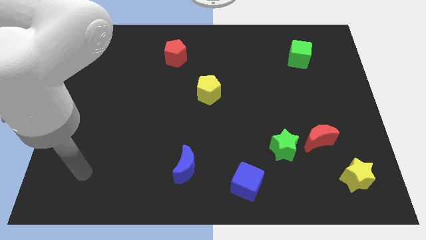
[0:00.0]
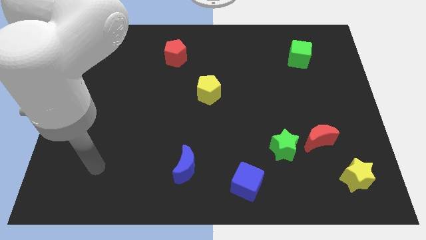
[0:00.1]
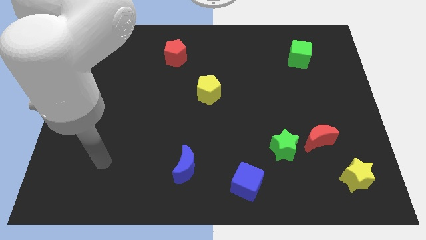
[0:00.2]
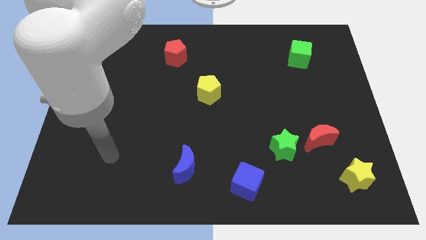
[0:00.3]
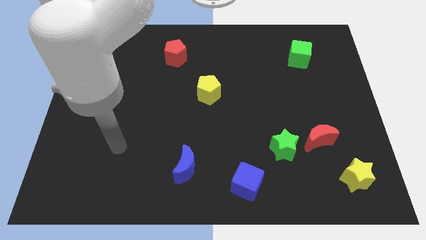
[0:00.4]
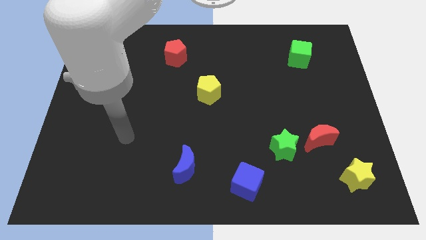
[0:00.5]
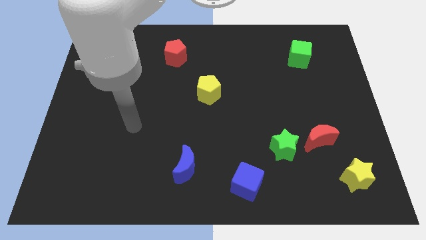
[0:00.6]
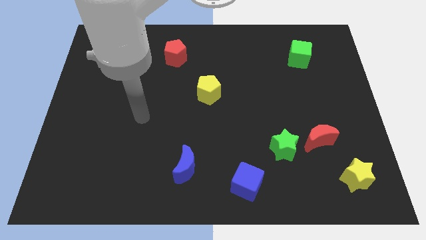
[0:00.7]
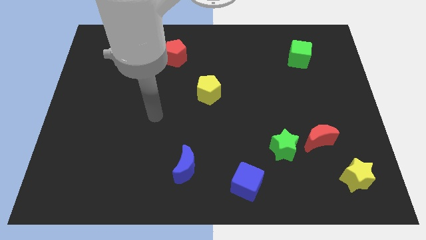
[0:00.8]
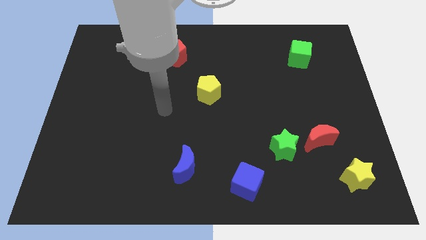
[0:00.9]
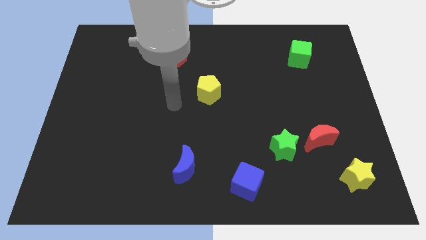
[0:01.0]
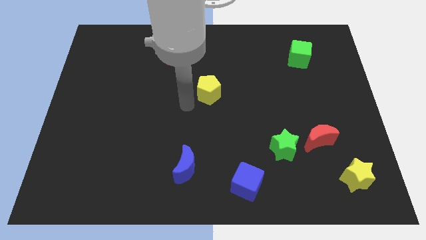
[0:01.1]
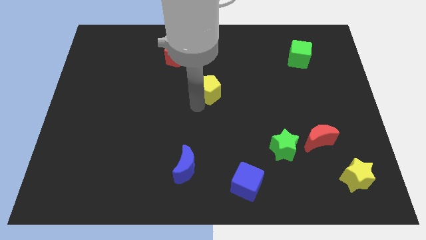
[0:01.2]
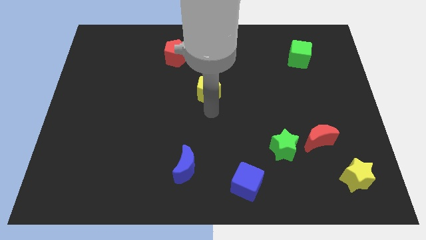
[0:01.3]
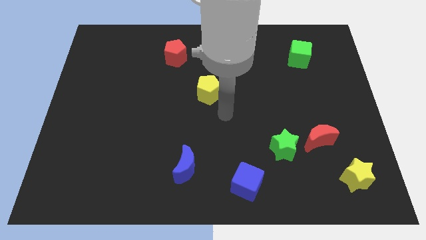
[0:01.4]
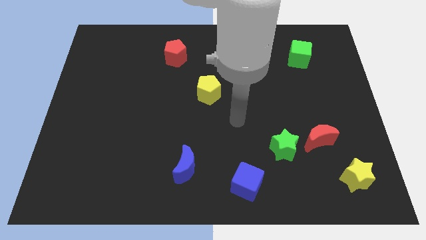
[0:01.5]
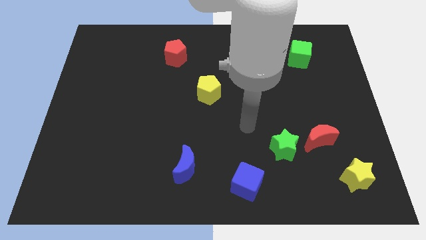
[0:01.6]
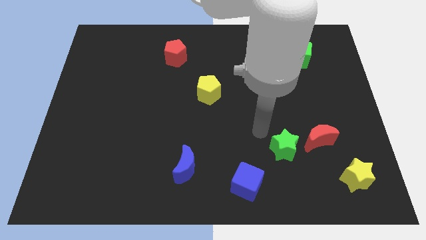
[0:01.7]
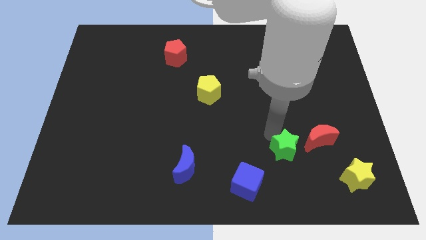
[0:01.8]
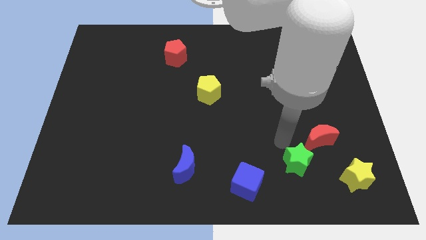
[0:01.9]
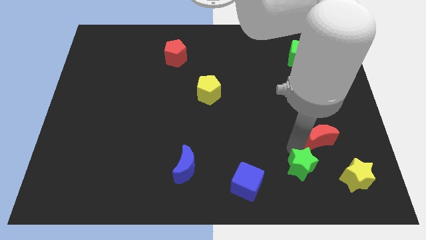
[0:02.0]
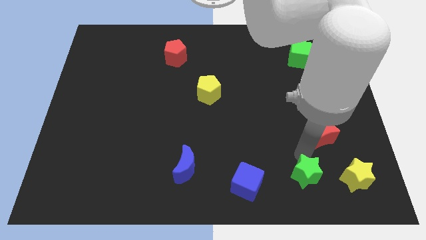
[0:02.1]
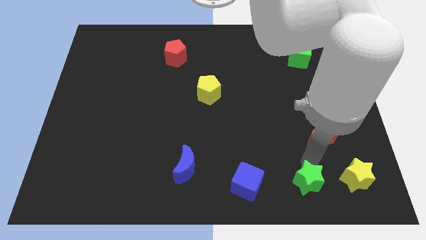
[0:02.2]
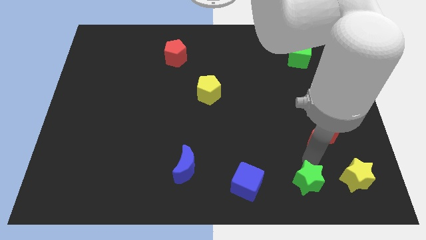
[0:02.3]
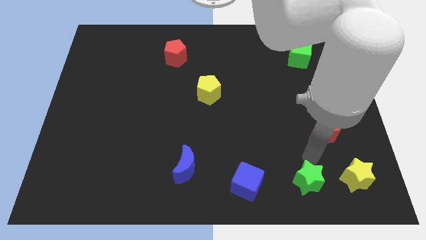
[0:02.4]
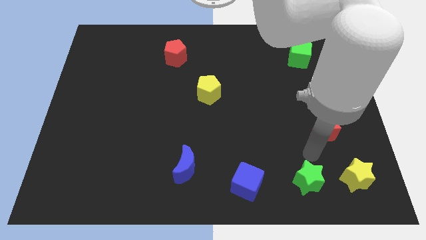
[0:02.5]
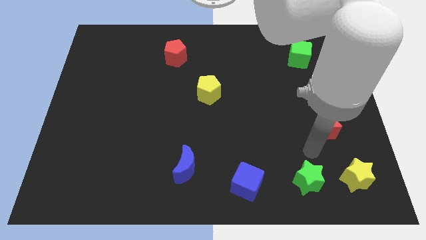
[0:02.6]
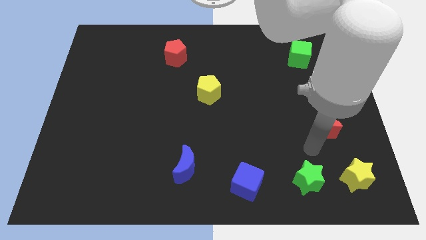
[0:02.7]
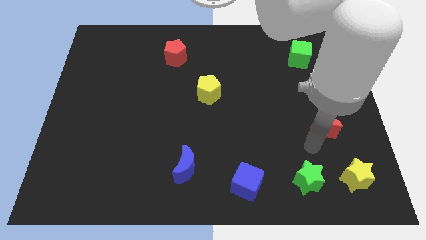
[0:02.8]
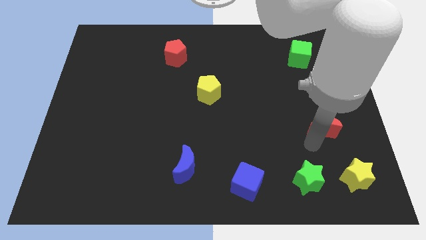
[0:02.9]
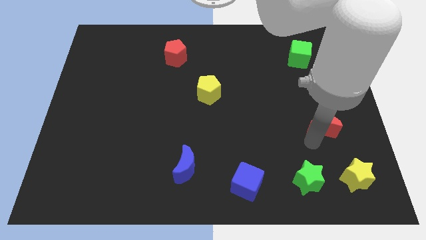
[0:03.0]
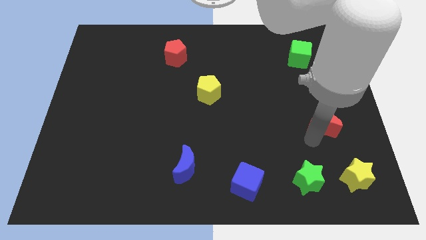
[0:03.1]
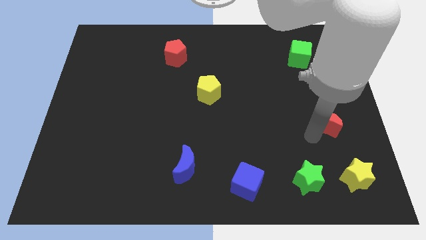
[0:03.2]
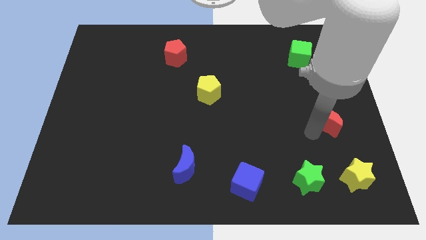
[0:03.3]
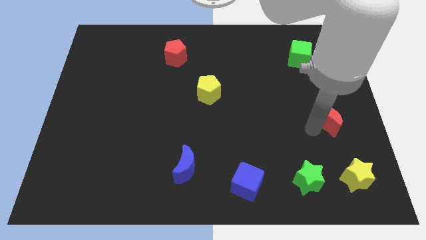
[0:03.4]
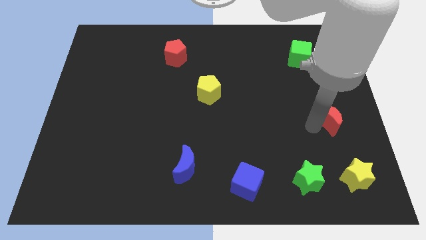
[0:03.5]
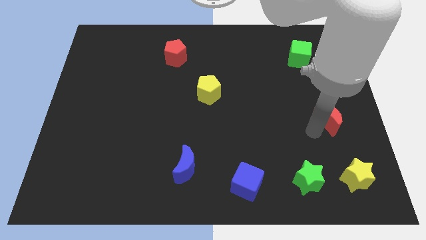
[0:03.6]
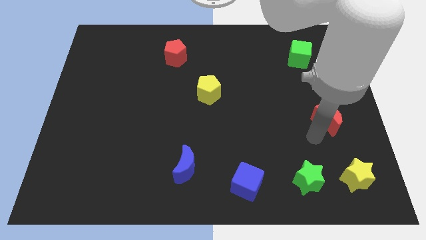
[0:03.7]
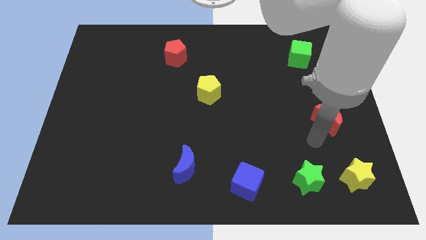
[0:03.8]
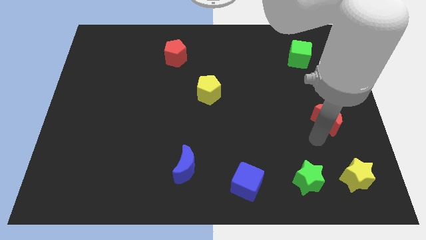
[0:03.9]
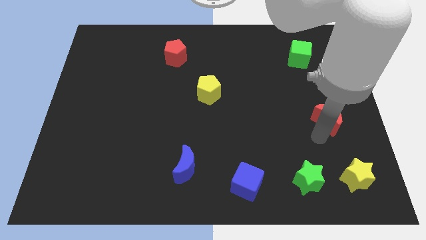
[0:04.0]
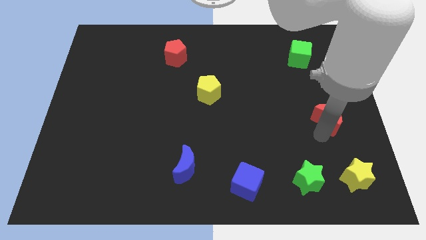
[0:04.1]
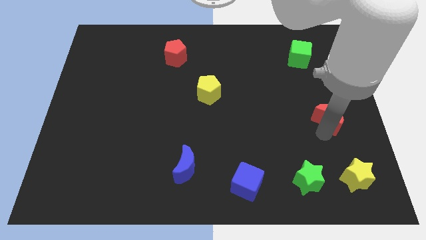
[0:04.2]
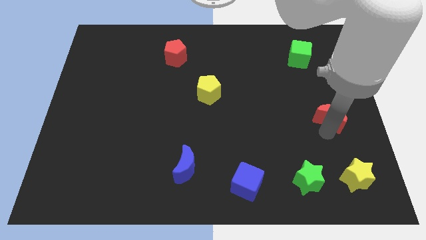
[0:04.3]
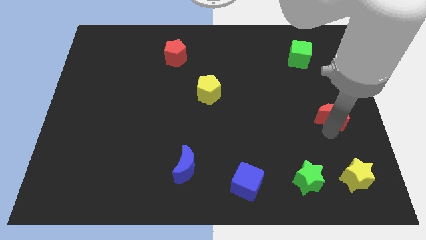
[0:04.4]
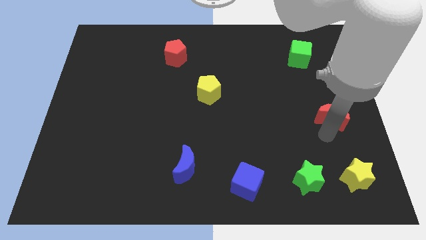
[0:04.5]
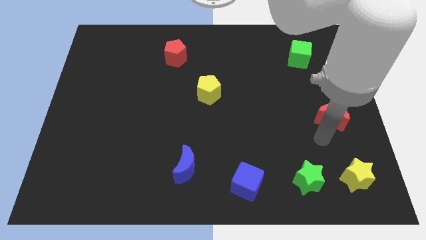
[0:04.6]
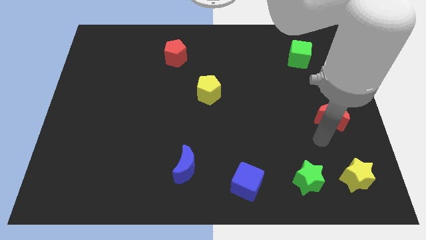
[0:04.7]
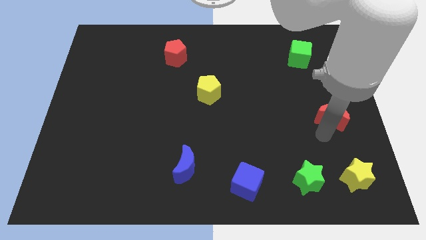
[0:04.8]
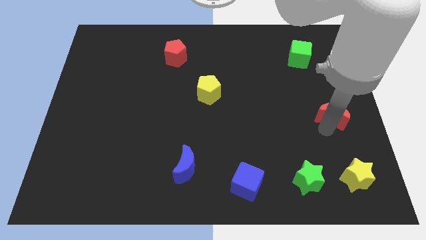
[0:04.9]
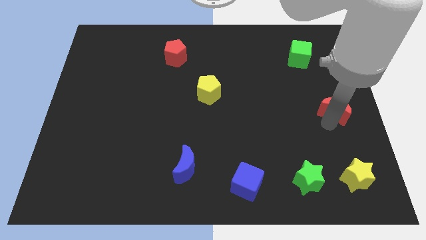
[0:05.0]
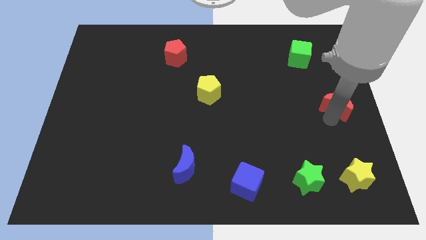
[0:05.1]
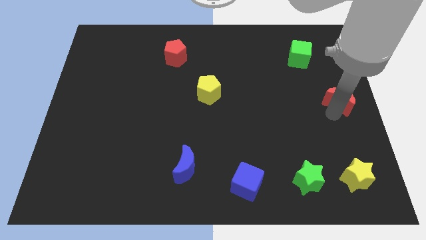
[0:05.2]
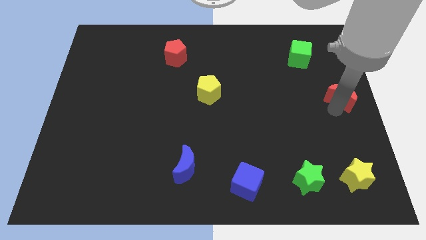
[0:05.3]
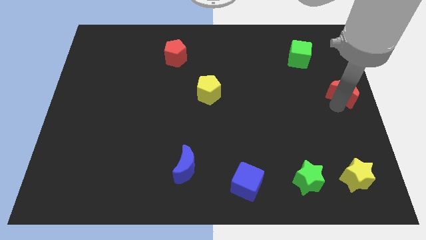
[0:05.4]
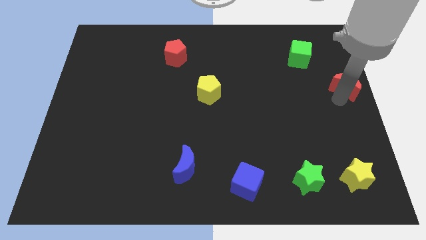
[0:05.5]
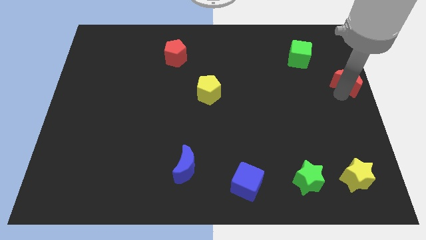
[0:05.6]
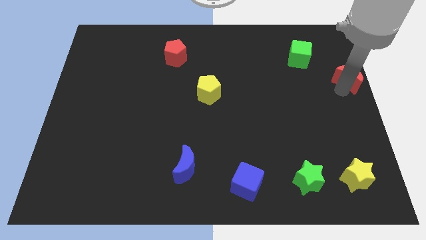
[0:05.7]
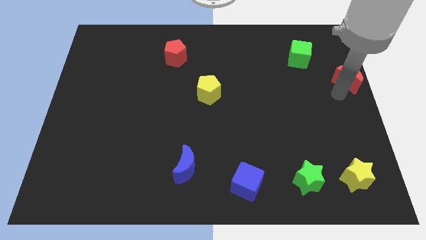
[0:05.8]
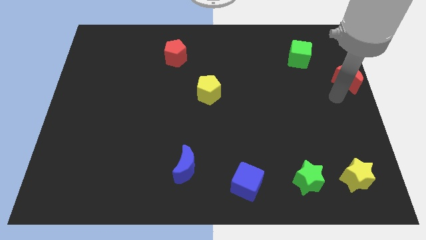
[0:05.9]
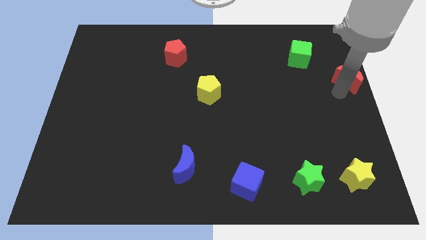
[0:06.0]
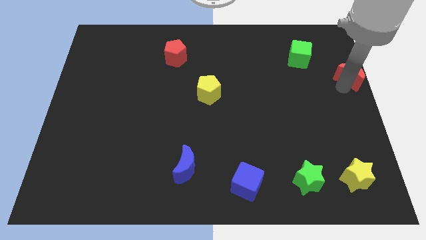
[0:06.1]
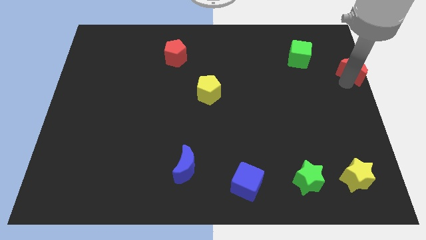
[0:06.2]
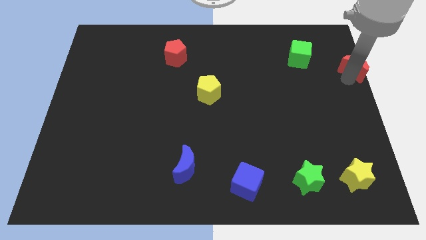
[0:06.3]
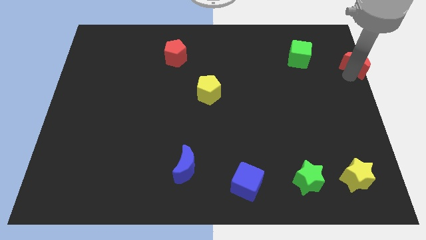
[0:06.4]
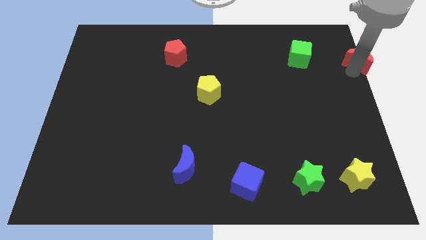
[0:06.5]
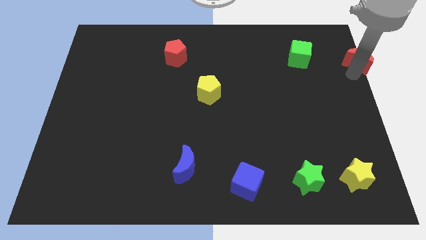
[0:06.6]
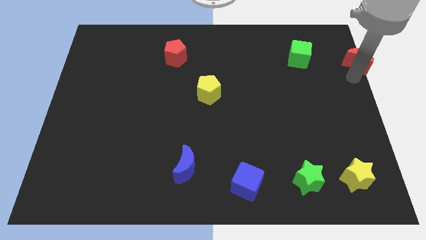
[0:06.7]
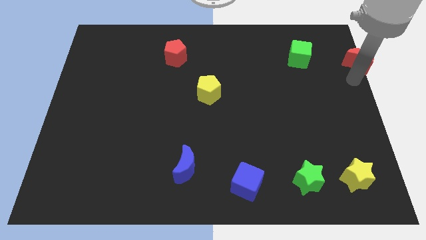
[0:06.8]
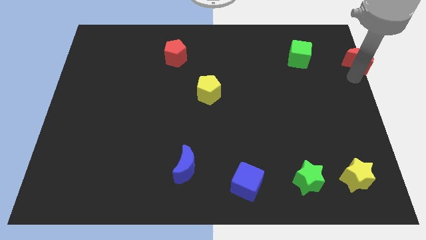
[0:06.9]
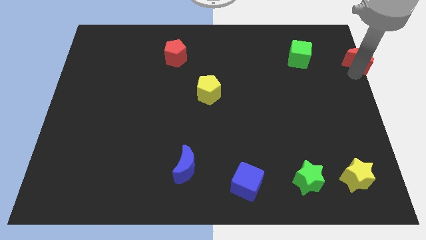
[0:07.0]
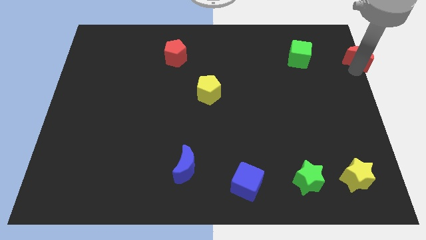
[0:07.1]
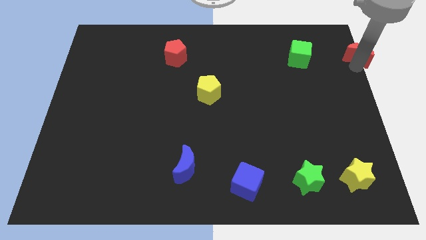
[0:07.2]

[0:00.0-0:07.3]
put the red moon to the top right corner
